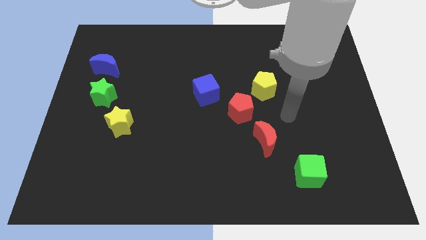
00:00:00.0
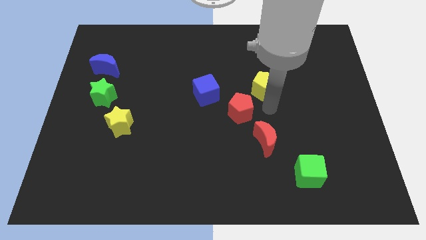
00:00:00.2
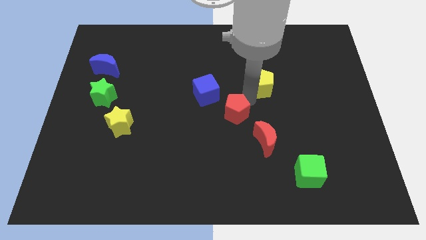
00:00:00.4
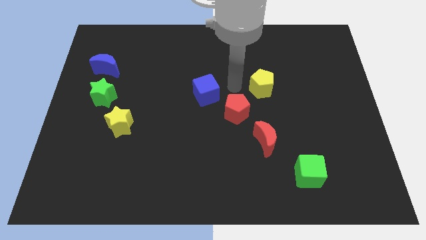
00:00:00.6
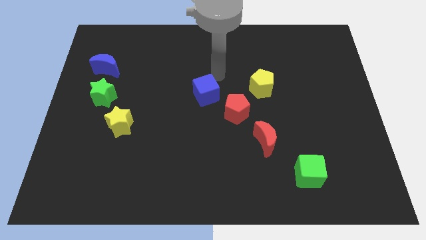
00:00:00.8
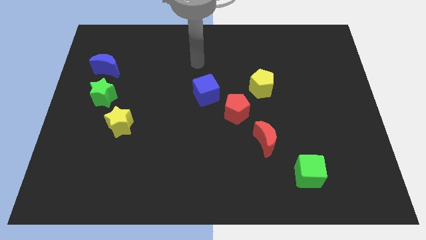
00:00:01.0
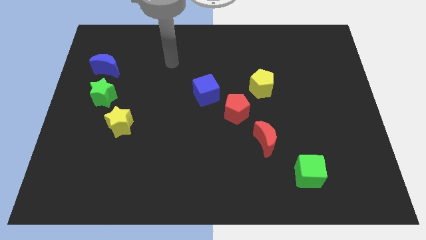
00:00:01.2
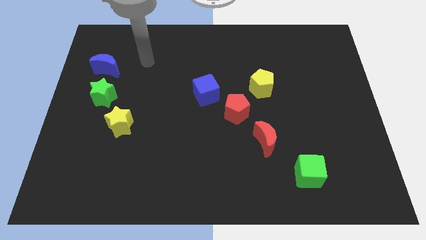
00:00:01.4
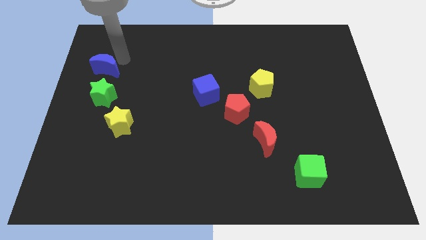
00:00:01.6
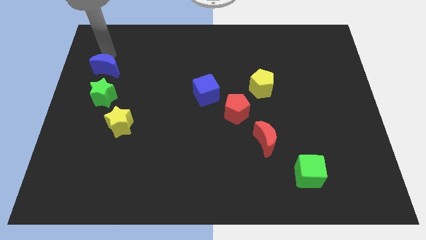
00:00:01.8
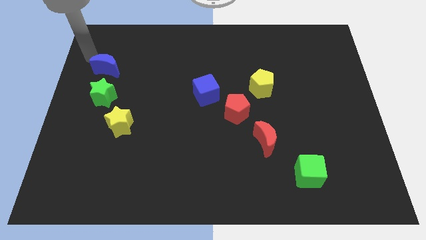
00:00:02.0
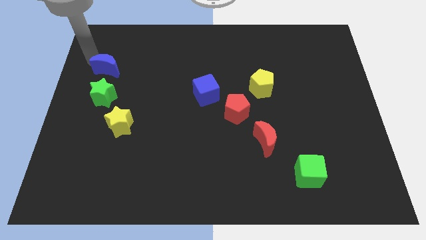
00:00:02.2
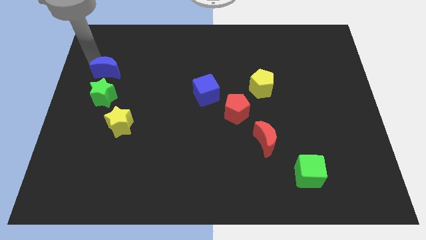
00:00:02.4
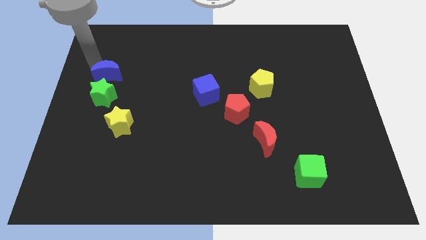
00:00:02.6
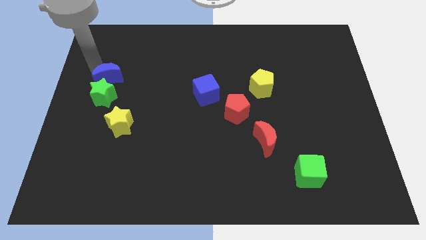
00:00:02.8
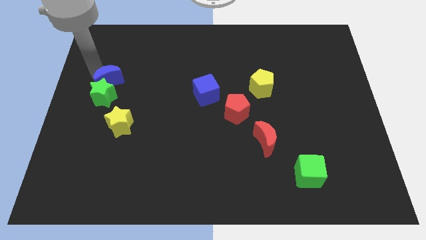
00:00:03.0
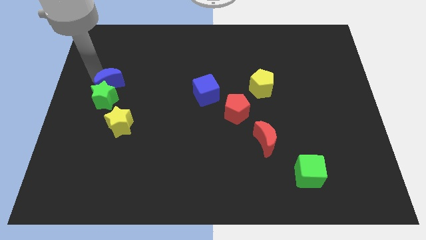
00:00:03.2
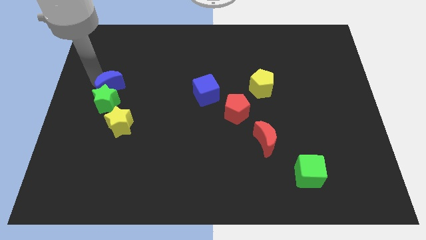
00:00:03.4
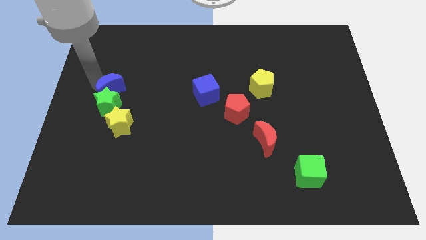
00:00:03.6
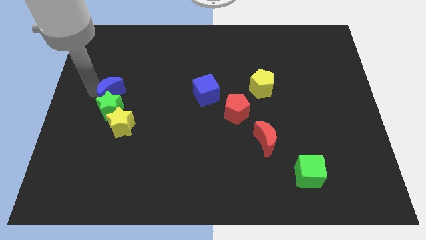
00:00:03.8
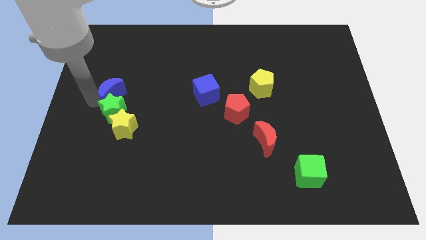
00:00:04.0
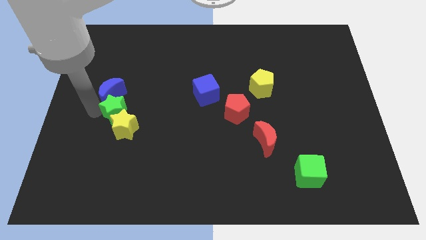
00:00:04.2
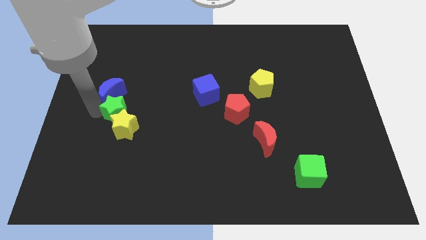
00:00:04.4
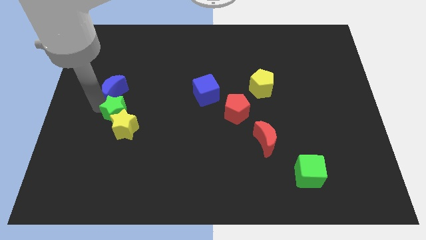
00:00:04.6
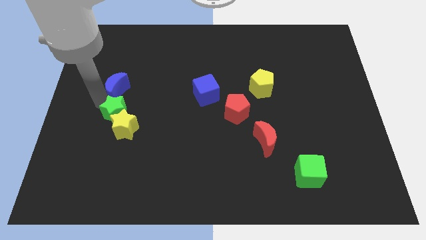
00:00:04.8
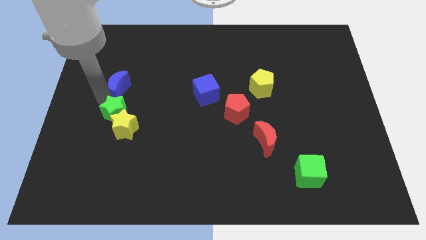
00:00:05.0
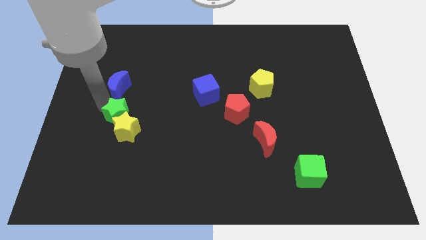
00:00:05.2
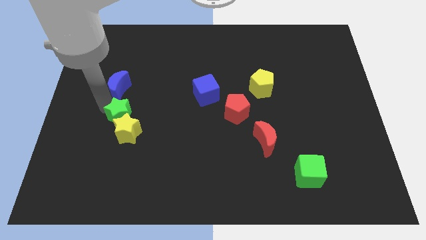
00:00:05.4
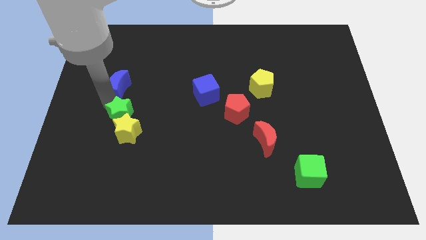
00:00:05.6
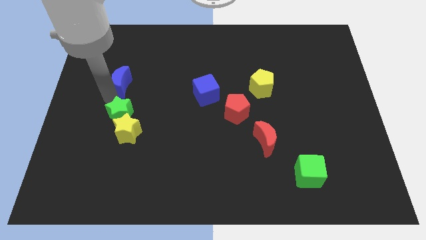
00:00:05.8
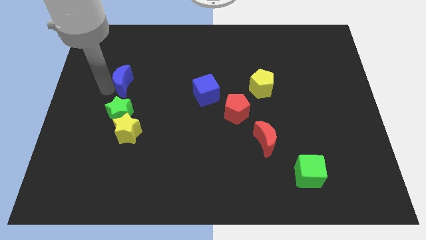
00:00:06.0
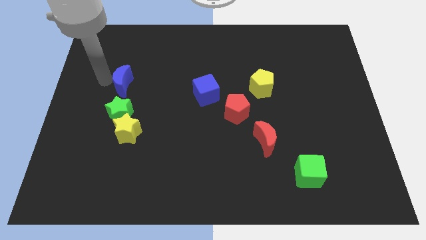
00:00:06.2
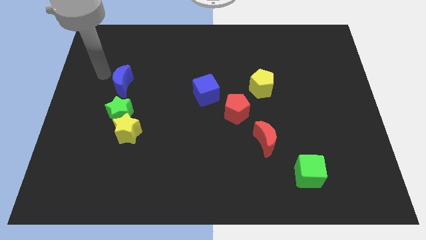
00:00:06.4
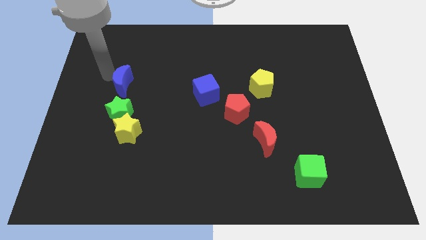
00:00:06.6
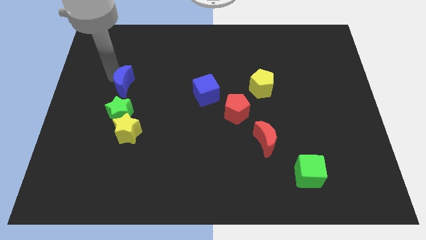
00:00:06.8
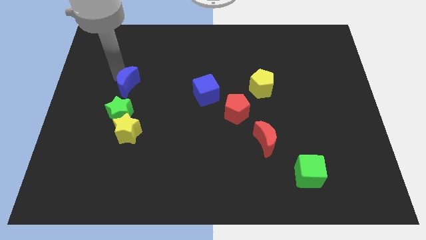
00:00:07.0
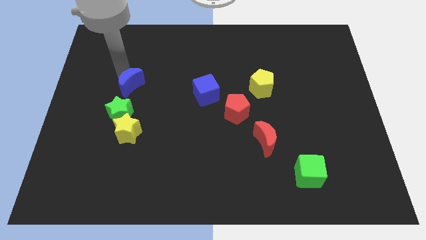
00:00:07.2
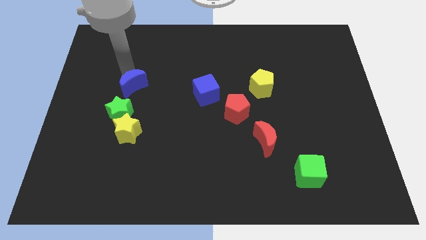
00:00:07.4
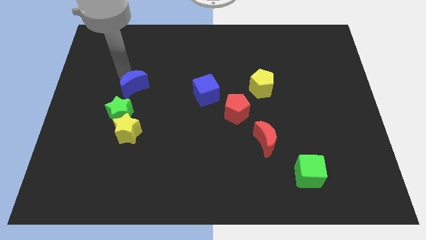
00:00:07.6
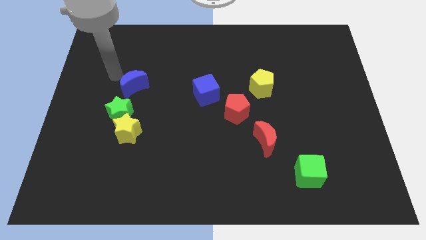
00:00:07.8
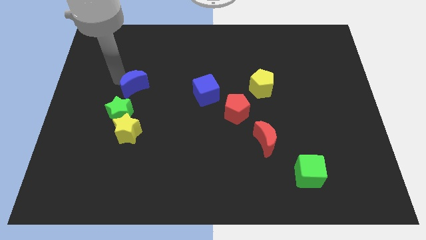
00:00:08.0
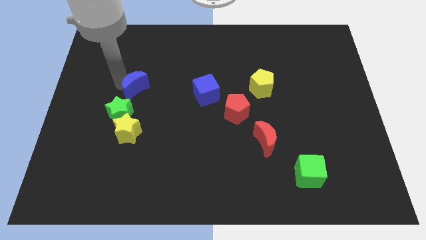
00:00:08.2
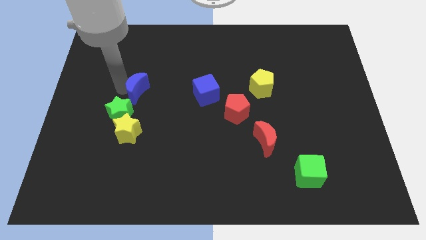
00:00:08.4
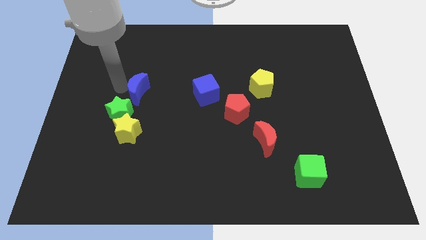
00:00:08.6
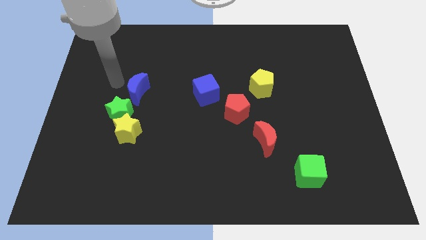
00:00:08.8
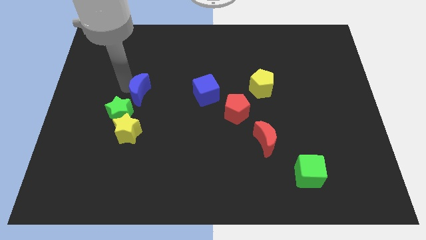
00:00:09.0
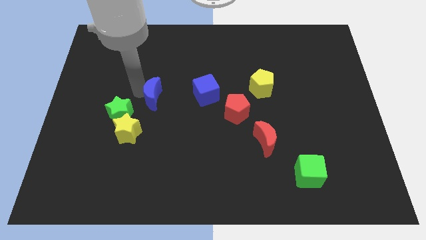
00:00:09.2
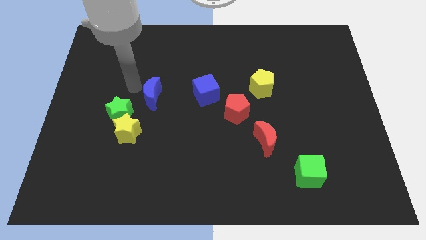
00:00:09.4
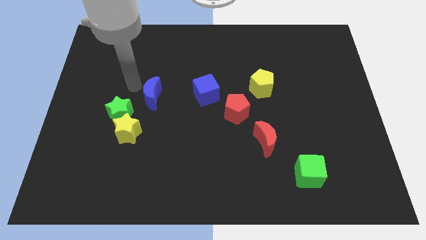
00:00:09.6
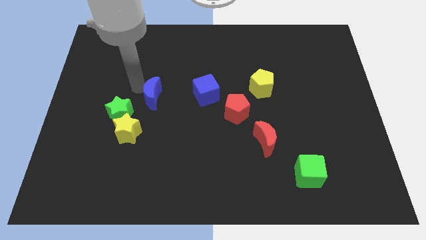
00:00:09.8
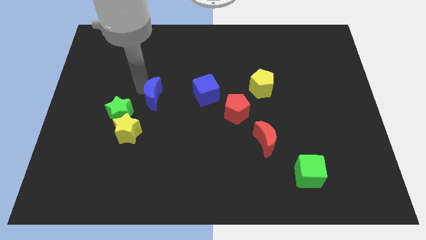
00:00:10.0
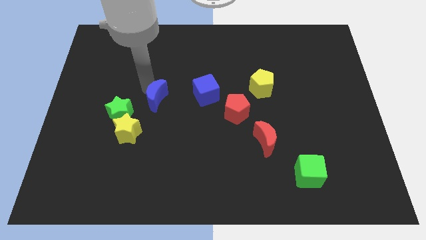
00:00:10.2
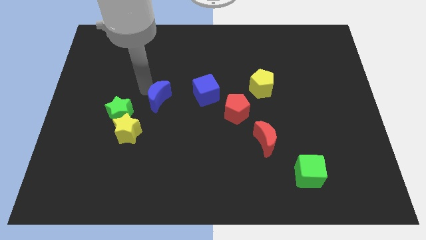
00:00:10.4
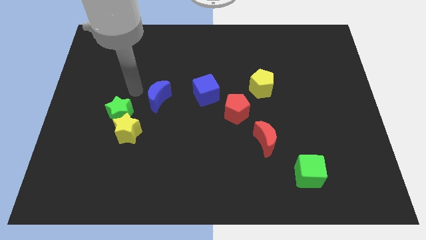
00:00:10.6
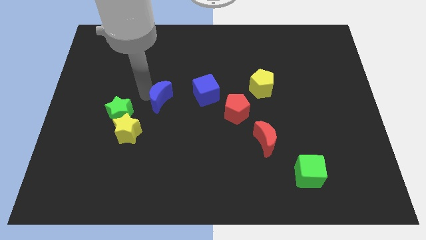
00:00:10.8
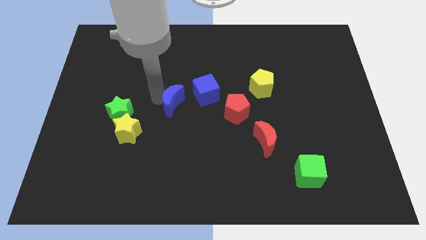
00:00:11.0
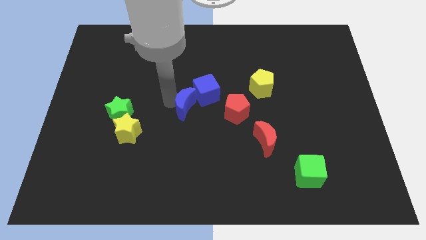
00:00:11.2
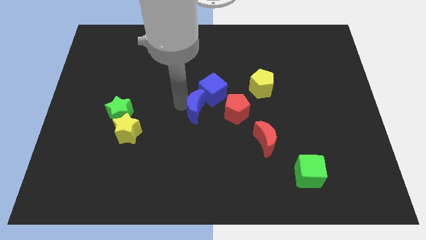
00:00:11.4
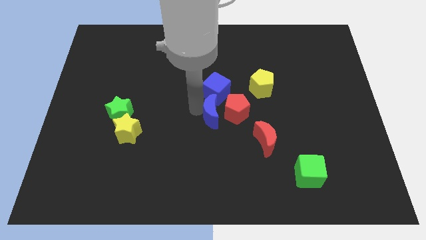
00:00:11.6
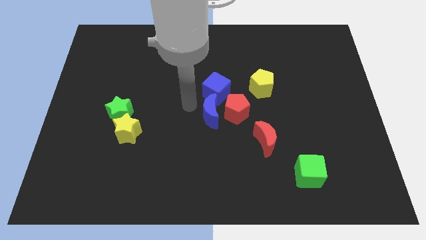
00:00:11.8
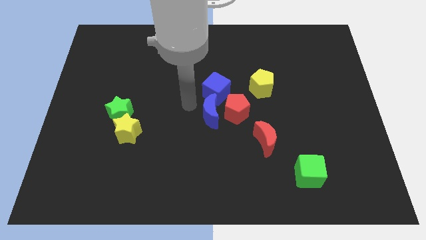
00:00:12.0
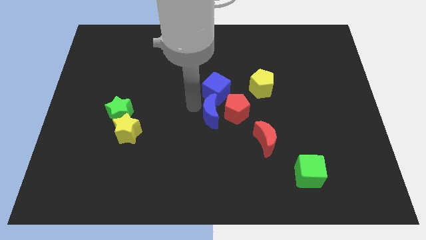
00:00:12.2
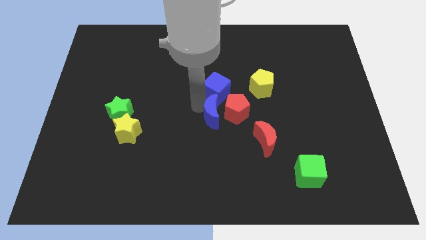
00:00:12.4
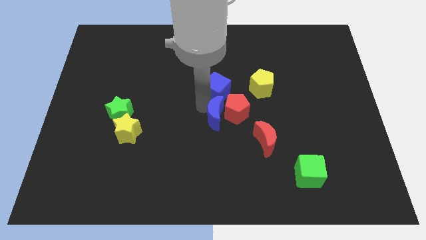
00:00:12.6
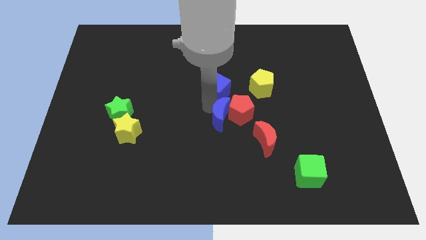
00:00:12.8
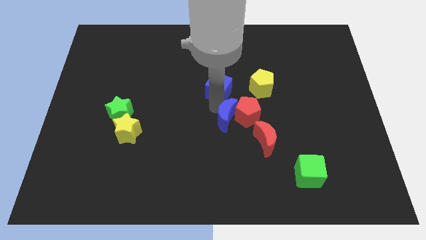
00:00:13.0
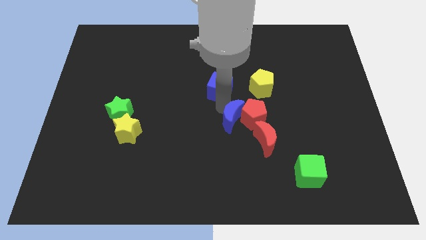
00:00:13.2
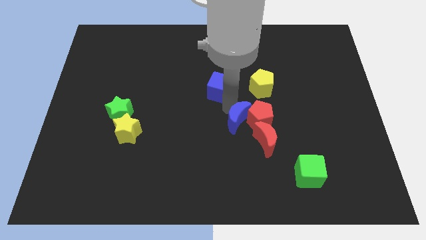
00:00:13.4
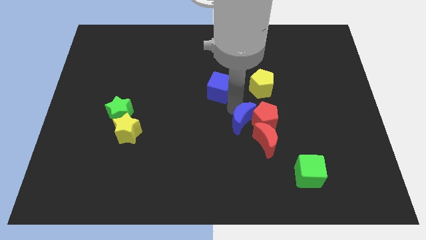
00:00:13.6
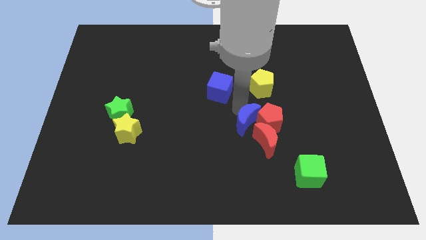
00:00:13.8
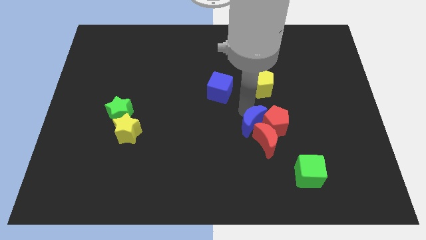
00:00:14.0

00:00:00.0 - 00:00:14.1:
move the blue moon next to the red moon
